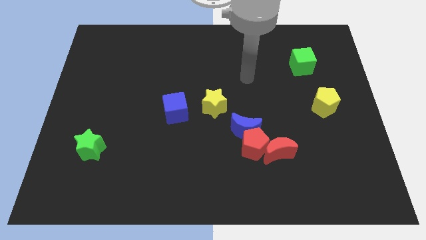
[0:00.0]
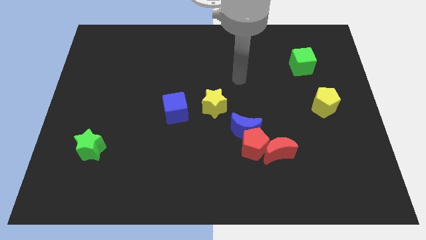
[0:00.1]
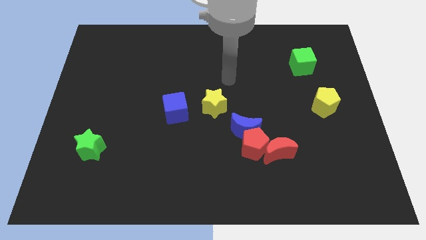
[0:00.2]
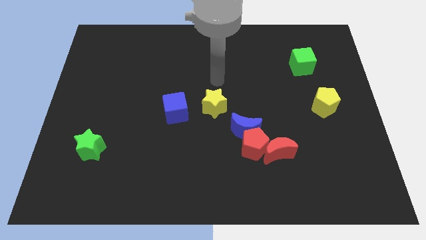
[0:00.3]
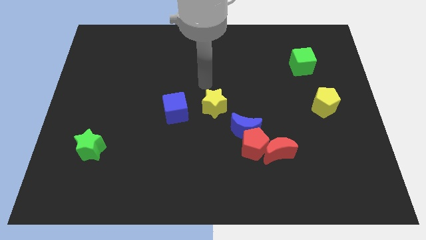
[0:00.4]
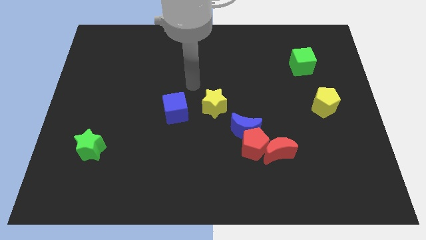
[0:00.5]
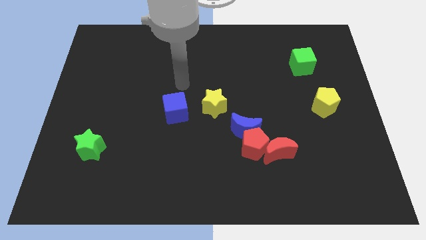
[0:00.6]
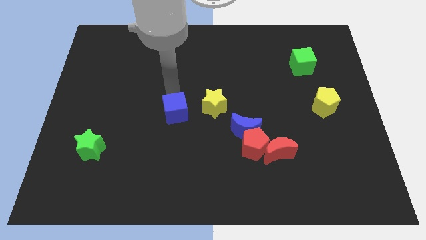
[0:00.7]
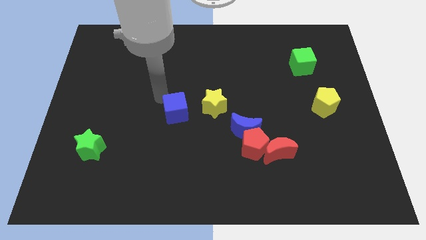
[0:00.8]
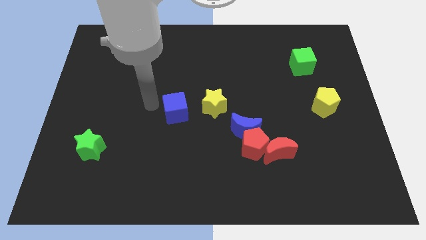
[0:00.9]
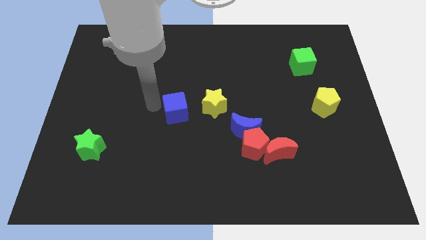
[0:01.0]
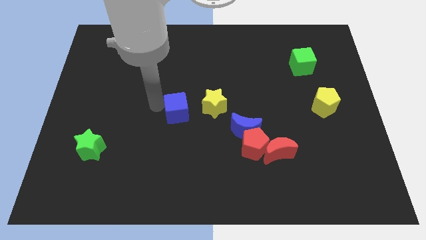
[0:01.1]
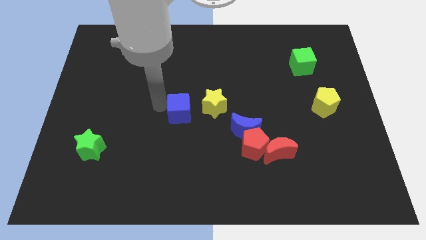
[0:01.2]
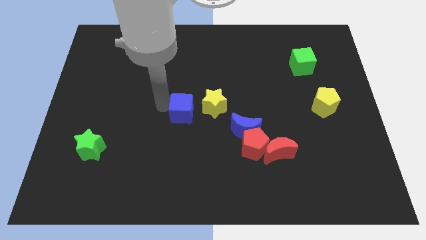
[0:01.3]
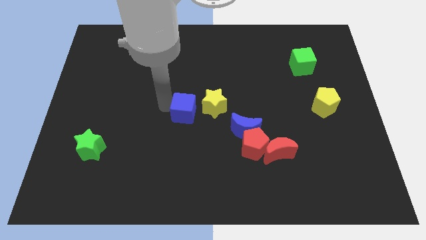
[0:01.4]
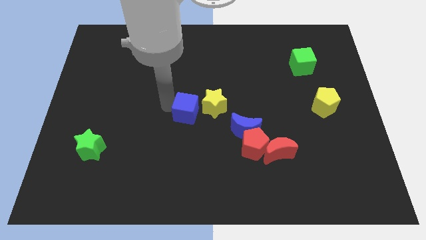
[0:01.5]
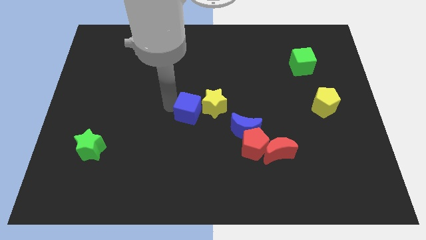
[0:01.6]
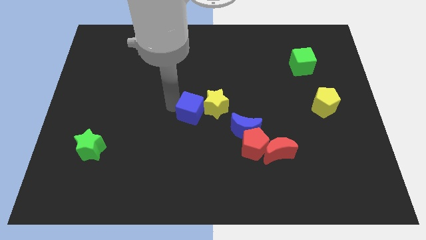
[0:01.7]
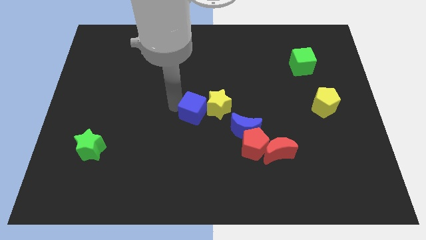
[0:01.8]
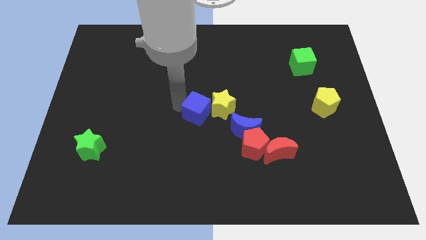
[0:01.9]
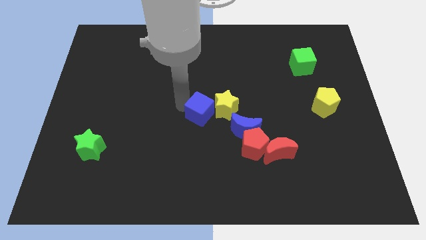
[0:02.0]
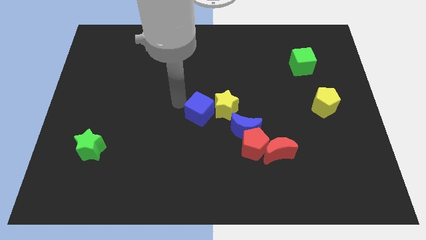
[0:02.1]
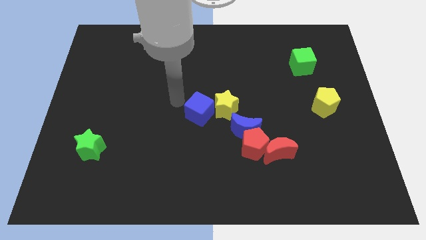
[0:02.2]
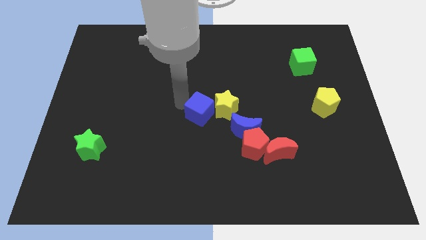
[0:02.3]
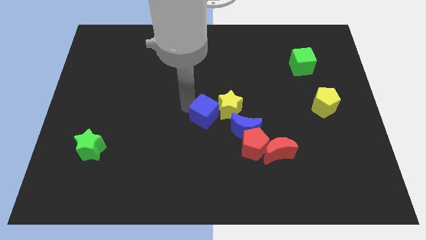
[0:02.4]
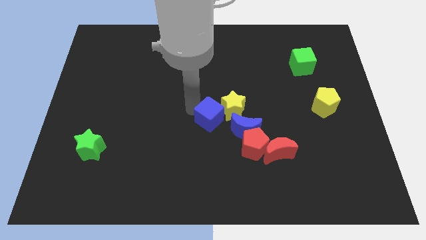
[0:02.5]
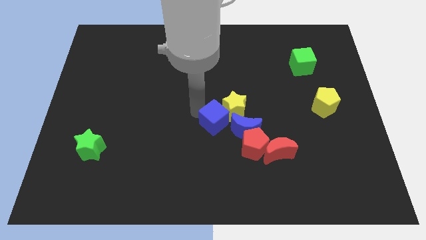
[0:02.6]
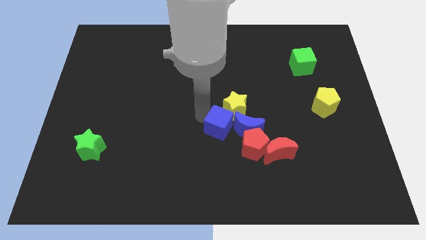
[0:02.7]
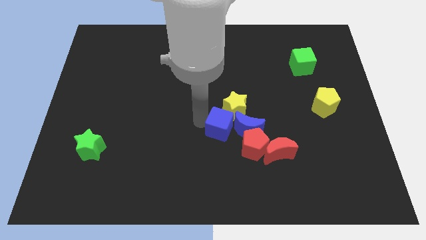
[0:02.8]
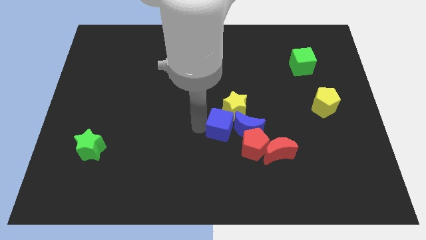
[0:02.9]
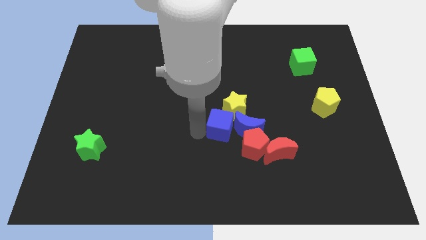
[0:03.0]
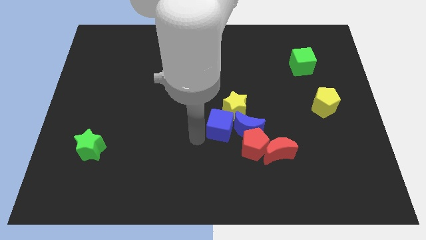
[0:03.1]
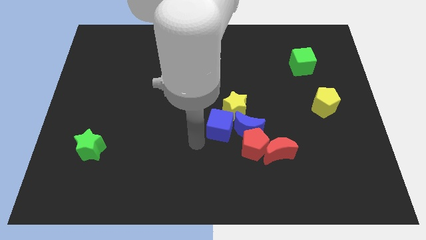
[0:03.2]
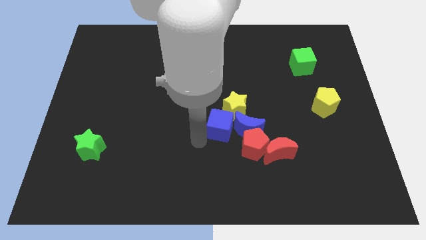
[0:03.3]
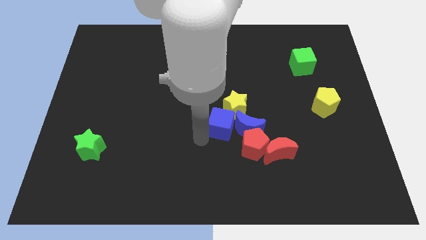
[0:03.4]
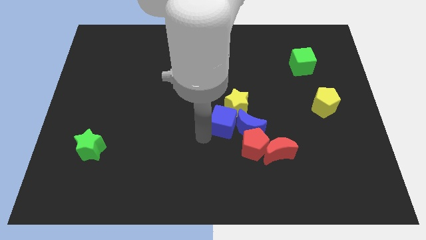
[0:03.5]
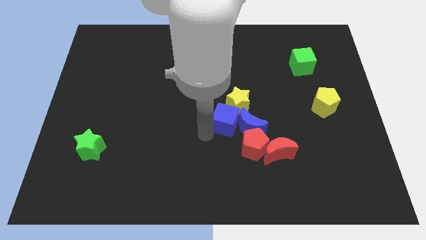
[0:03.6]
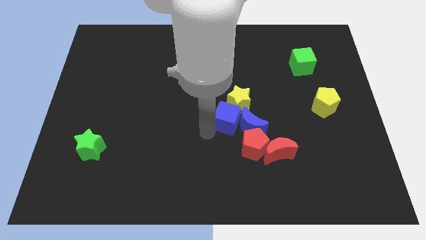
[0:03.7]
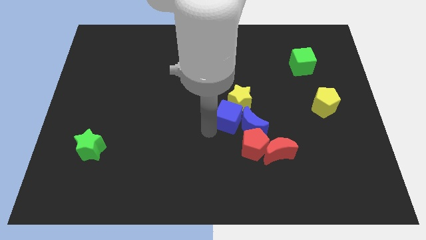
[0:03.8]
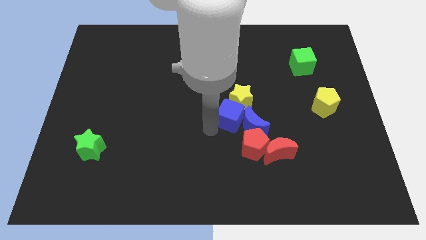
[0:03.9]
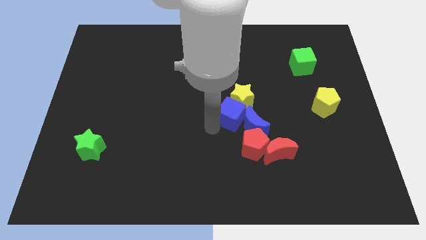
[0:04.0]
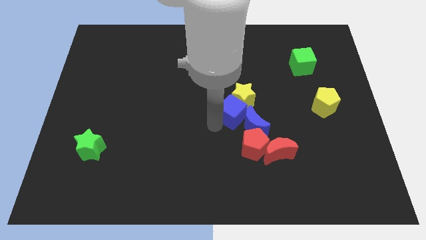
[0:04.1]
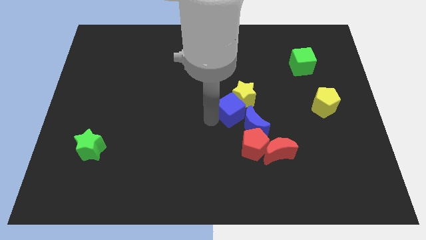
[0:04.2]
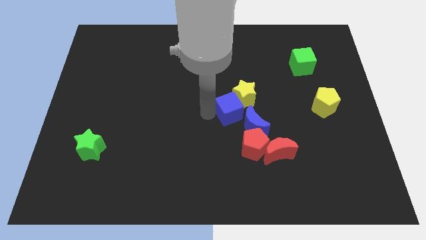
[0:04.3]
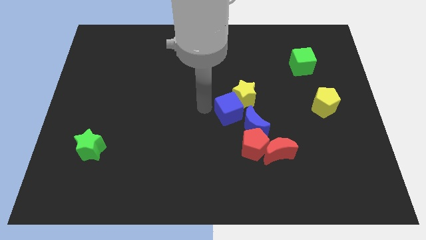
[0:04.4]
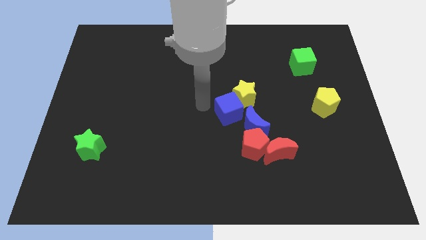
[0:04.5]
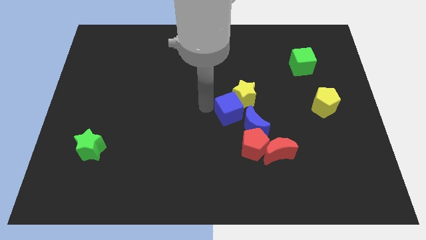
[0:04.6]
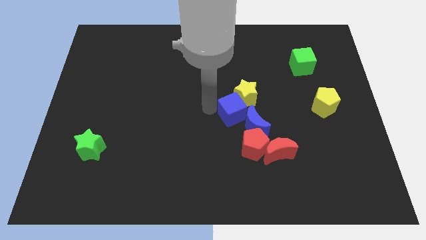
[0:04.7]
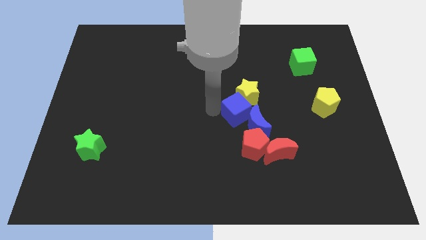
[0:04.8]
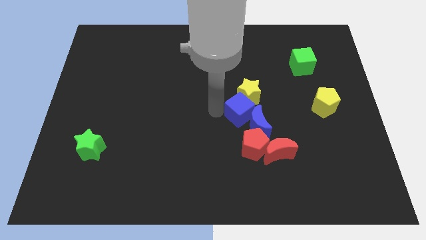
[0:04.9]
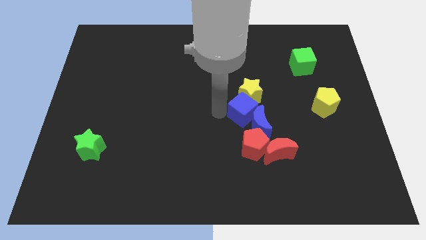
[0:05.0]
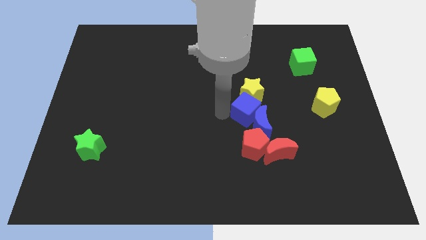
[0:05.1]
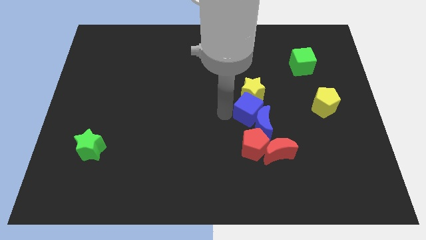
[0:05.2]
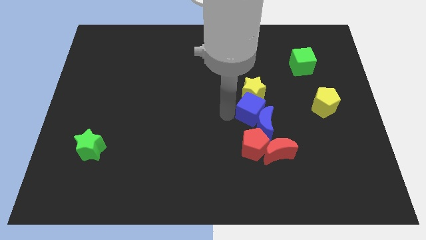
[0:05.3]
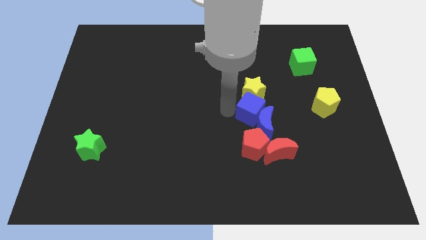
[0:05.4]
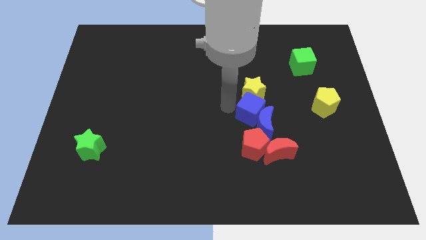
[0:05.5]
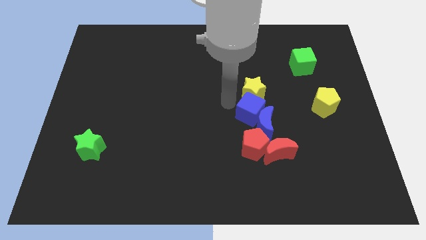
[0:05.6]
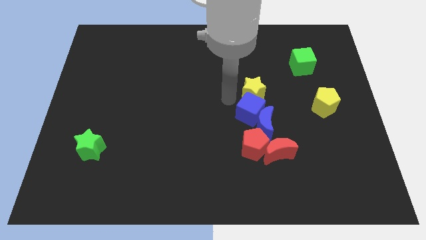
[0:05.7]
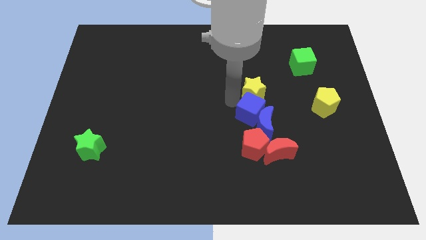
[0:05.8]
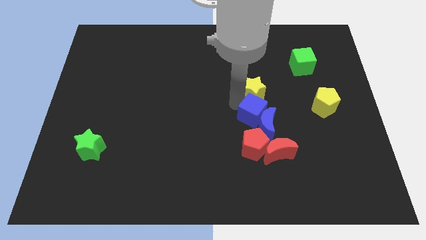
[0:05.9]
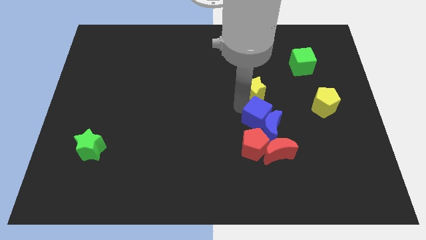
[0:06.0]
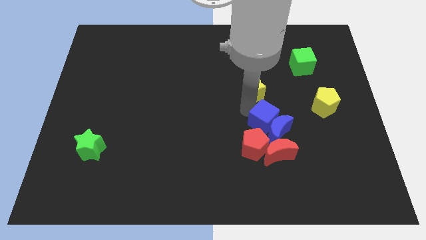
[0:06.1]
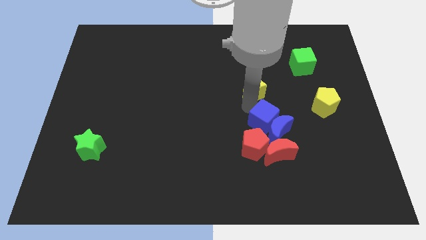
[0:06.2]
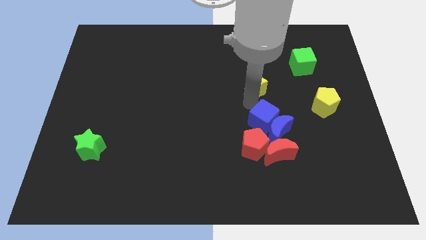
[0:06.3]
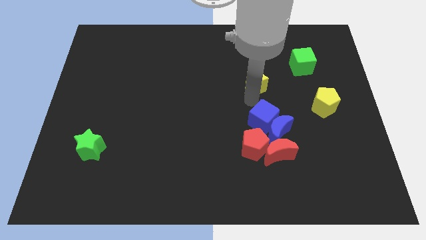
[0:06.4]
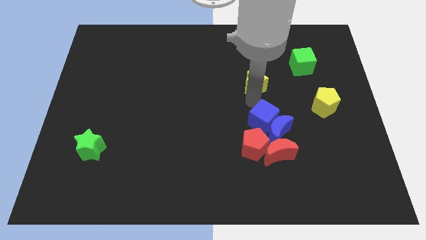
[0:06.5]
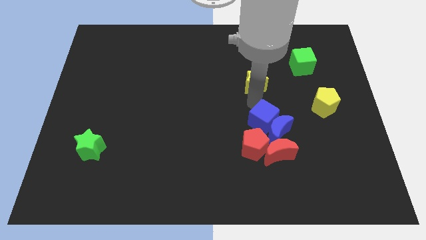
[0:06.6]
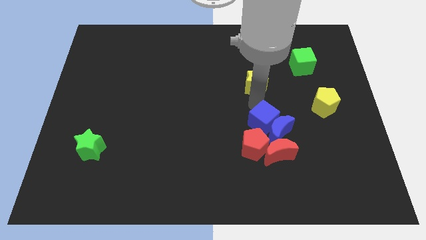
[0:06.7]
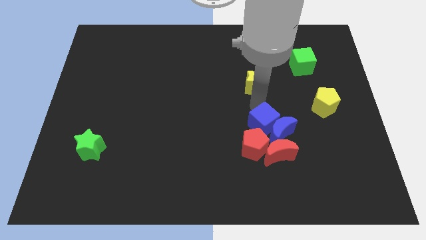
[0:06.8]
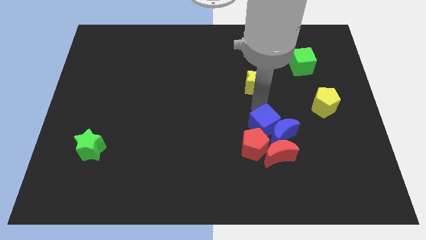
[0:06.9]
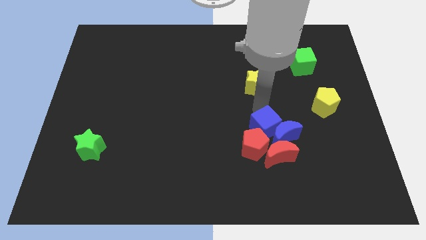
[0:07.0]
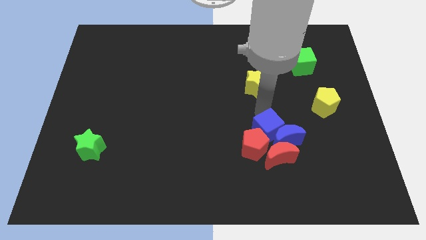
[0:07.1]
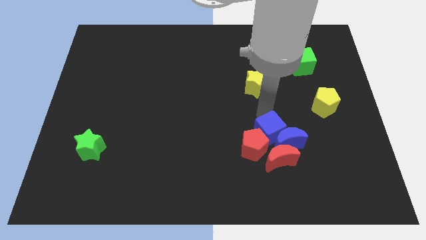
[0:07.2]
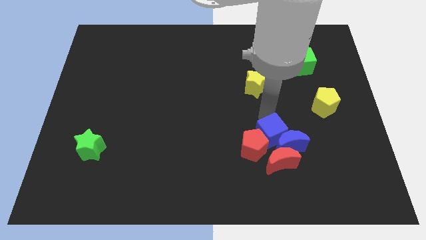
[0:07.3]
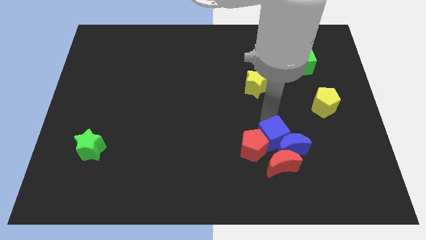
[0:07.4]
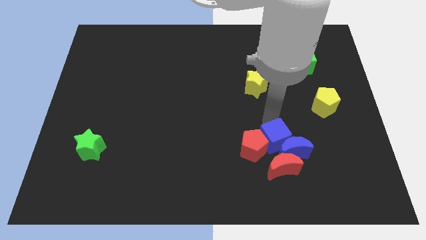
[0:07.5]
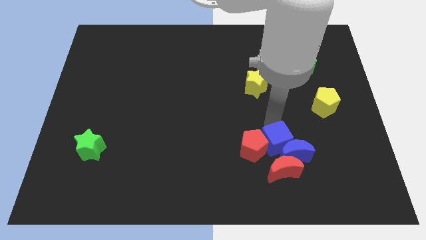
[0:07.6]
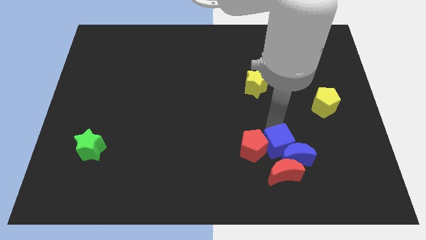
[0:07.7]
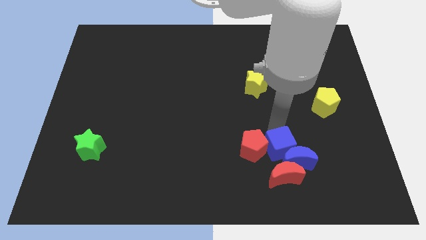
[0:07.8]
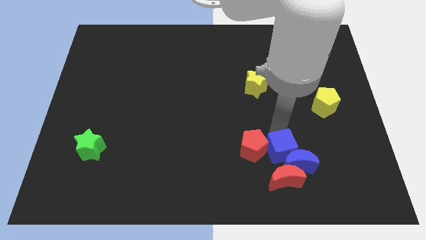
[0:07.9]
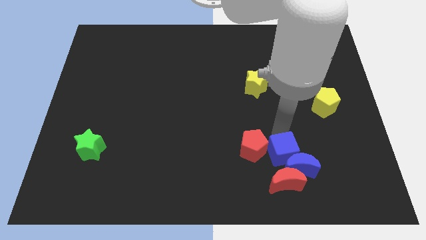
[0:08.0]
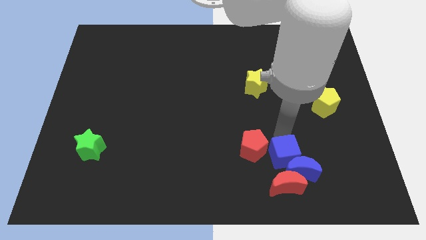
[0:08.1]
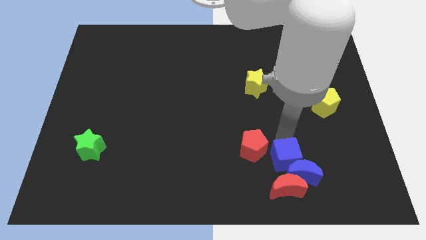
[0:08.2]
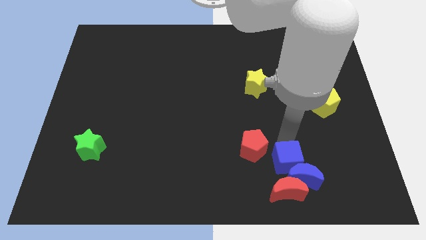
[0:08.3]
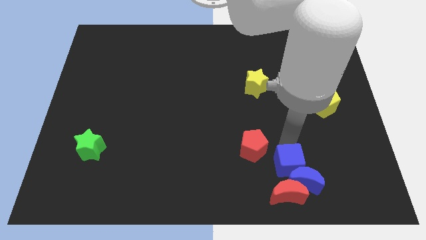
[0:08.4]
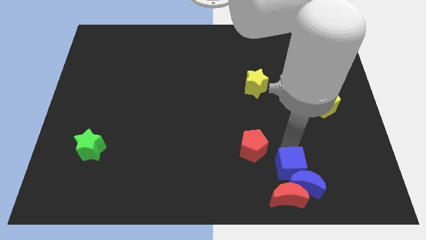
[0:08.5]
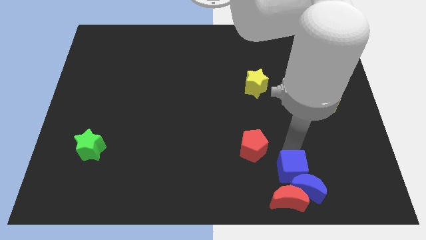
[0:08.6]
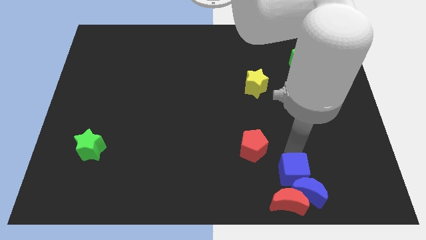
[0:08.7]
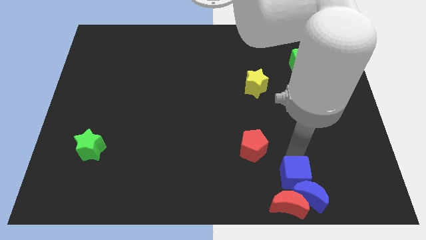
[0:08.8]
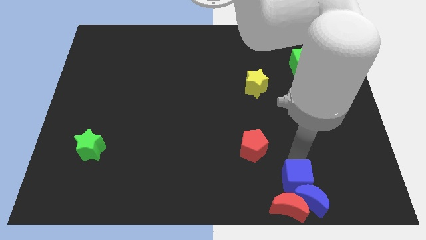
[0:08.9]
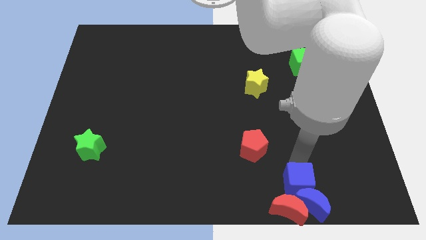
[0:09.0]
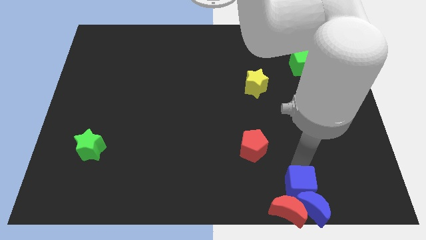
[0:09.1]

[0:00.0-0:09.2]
push the blue cube close to the red moon
